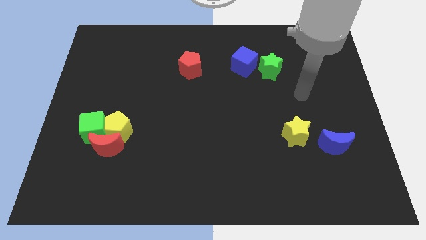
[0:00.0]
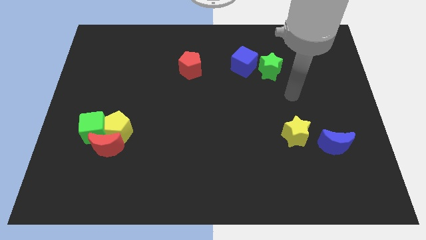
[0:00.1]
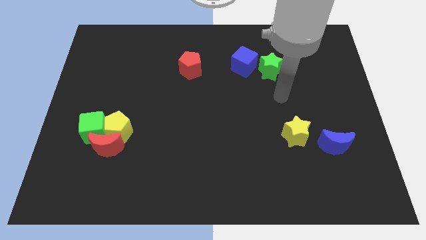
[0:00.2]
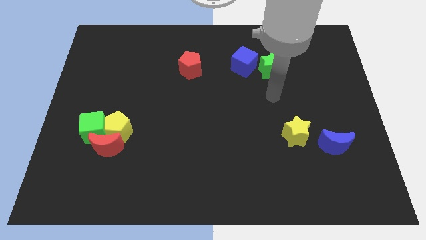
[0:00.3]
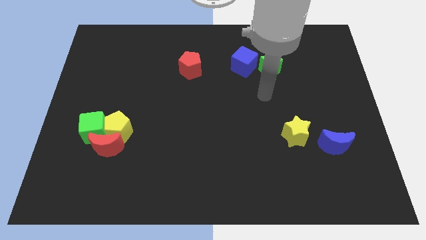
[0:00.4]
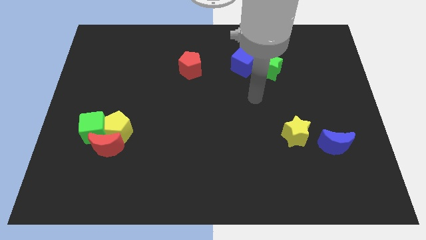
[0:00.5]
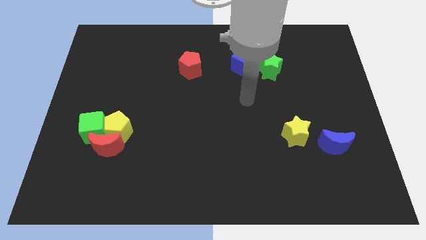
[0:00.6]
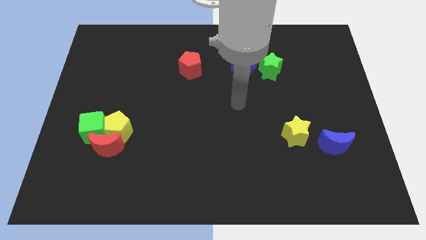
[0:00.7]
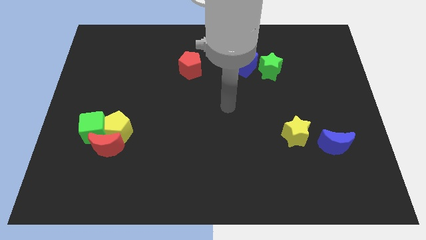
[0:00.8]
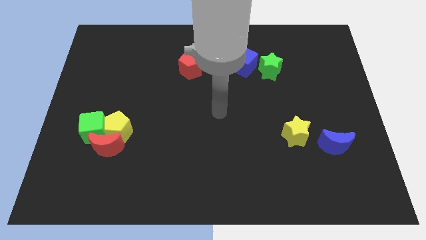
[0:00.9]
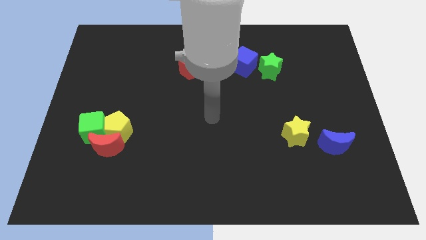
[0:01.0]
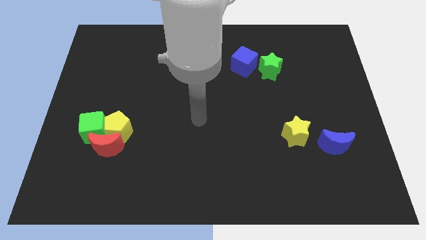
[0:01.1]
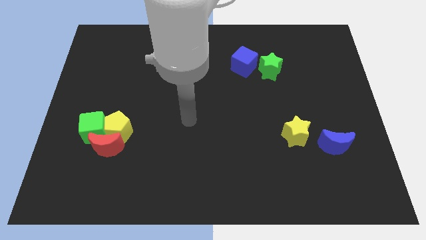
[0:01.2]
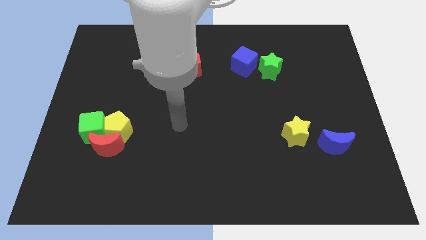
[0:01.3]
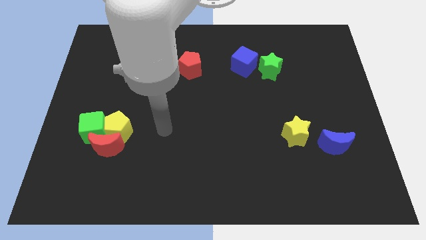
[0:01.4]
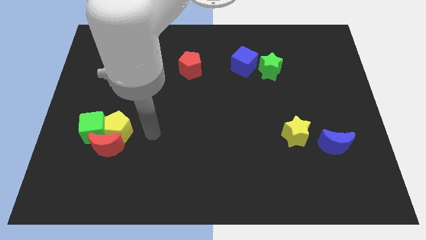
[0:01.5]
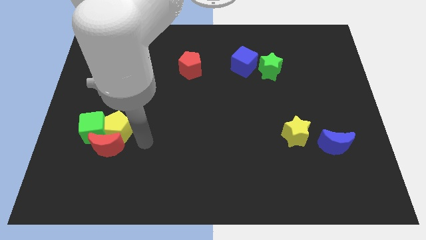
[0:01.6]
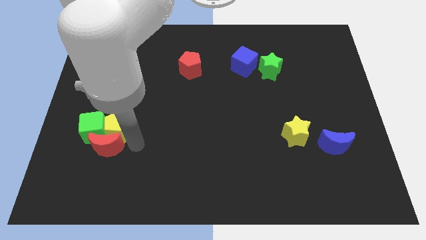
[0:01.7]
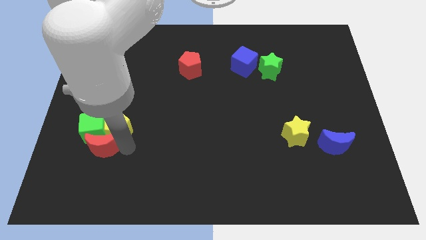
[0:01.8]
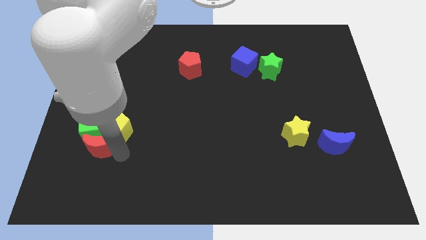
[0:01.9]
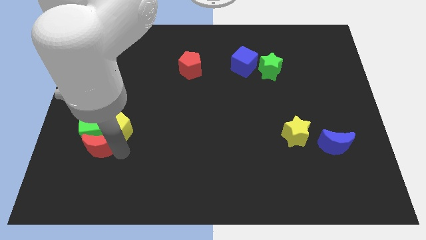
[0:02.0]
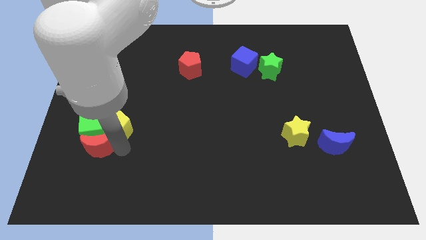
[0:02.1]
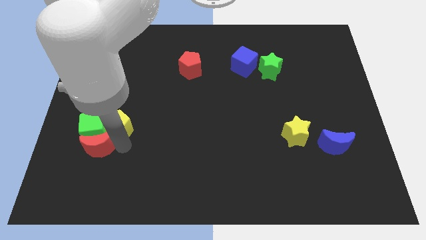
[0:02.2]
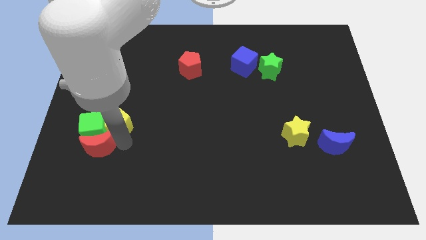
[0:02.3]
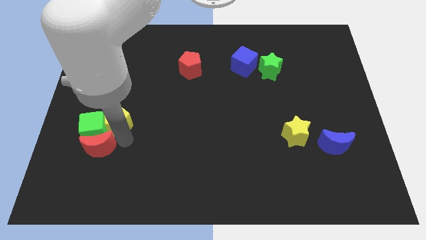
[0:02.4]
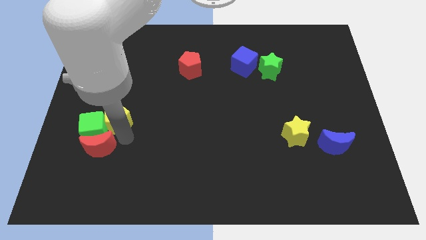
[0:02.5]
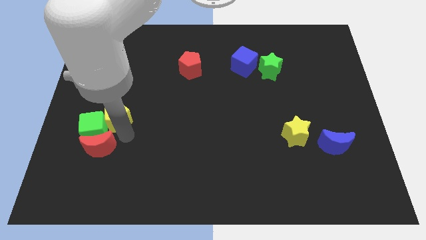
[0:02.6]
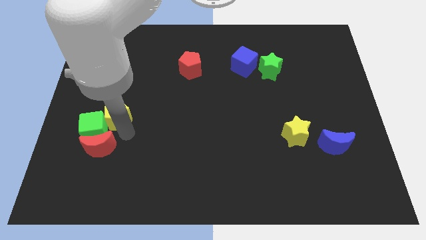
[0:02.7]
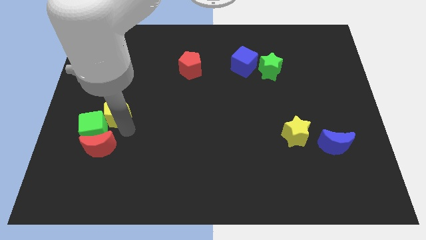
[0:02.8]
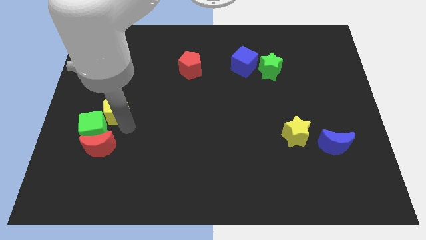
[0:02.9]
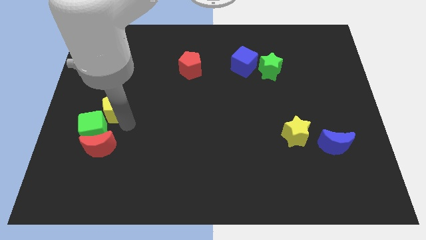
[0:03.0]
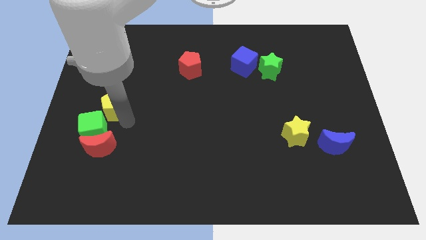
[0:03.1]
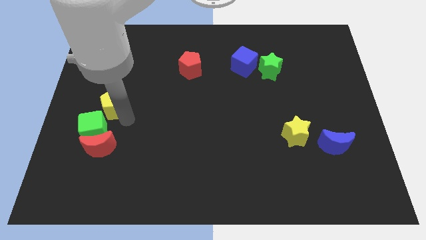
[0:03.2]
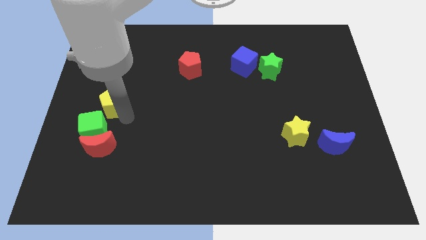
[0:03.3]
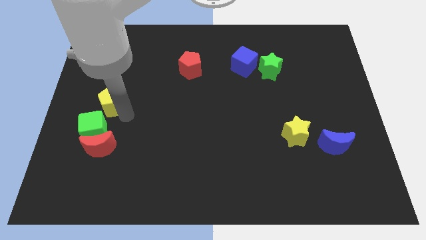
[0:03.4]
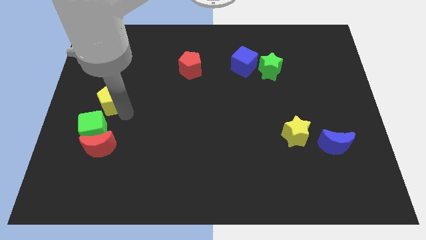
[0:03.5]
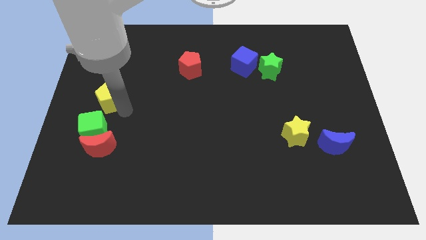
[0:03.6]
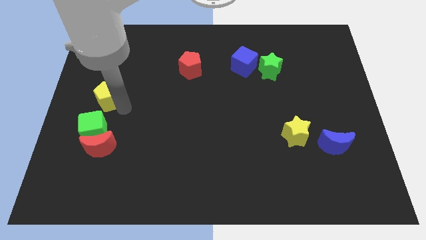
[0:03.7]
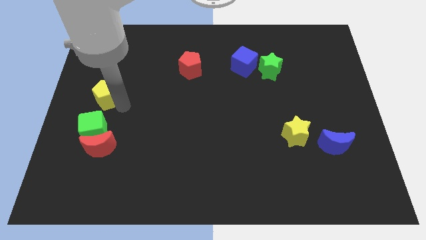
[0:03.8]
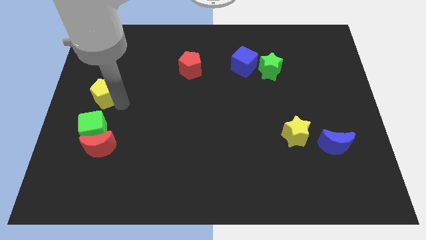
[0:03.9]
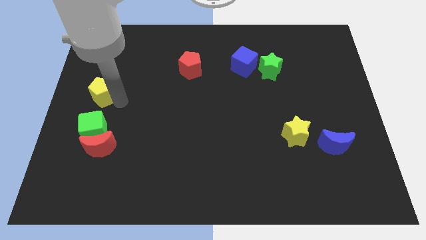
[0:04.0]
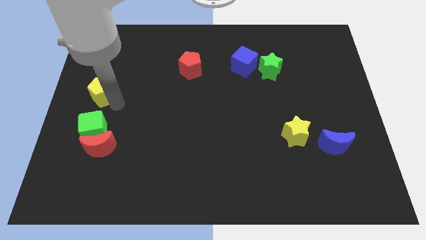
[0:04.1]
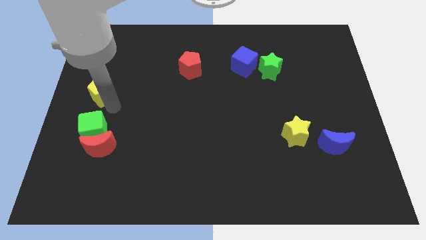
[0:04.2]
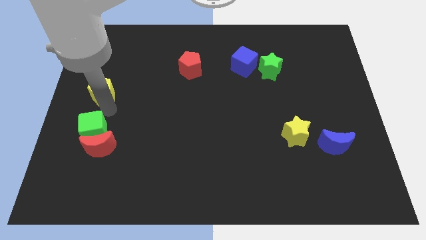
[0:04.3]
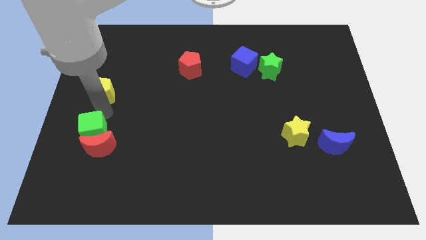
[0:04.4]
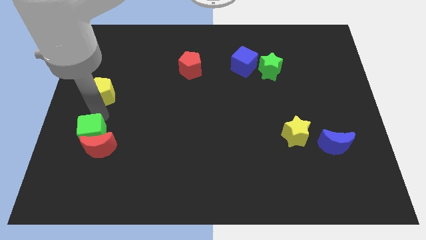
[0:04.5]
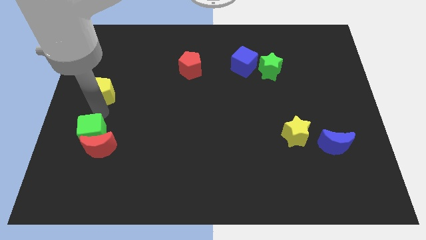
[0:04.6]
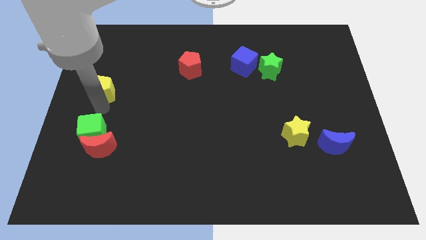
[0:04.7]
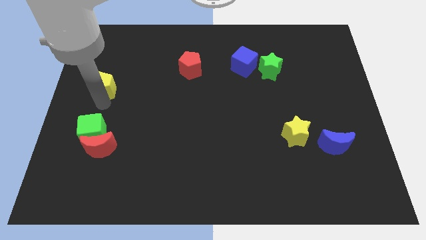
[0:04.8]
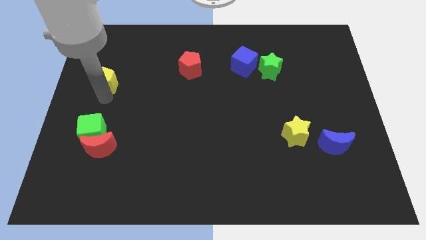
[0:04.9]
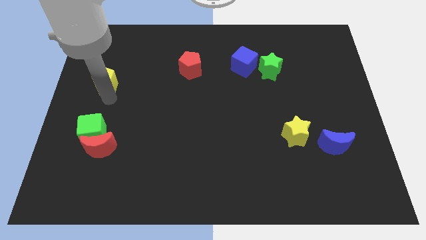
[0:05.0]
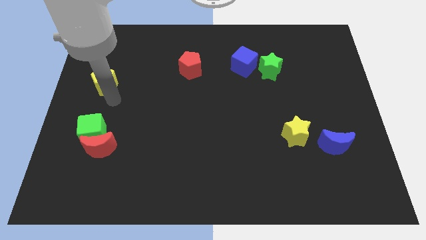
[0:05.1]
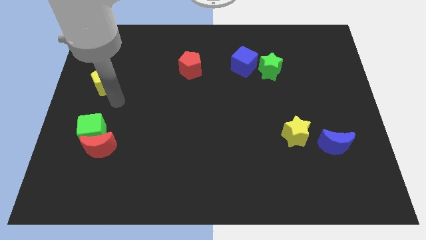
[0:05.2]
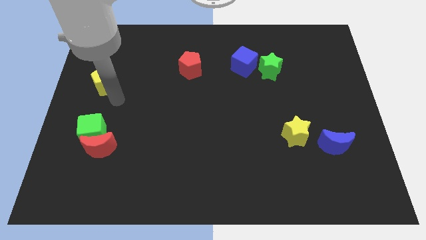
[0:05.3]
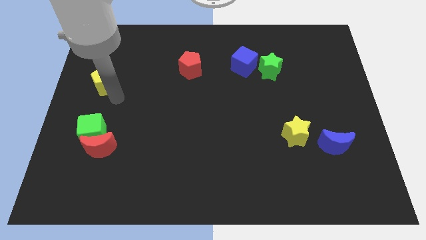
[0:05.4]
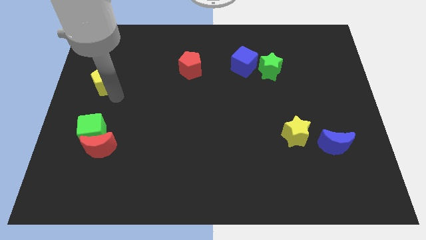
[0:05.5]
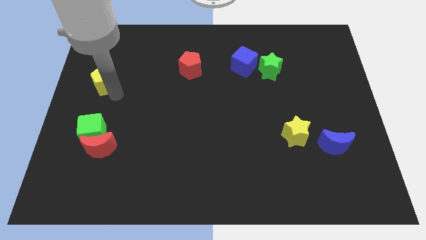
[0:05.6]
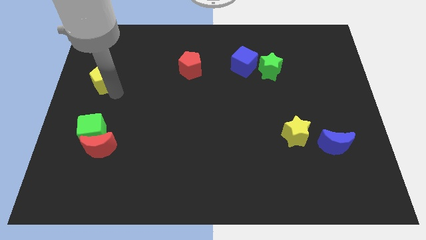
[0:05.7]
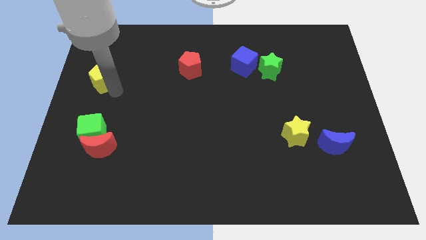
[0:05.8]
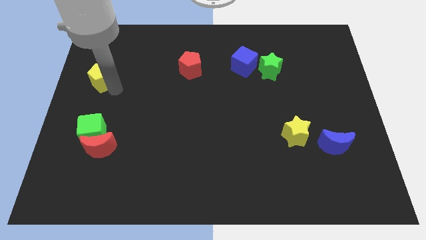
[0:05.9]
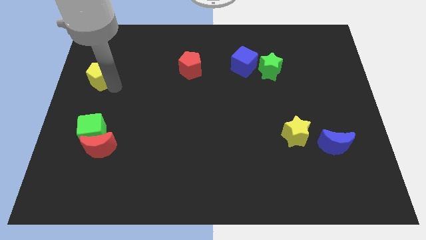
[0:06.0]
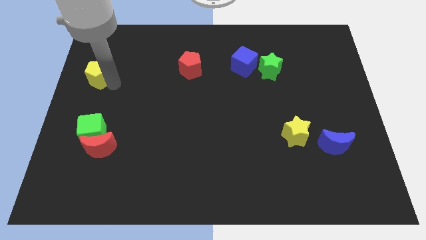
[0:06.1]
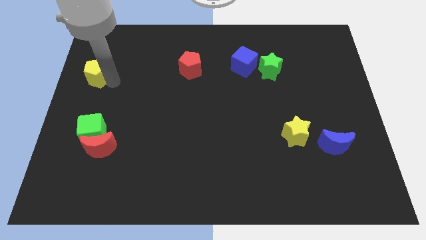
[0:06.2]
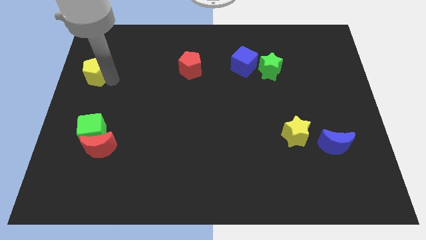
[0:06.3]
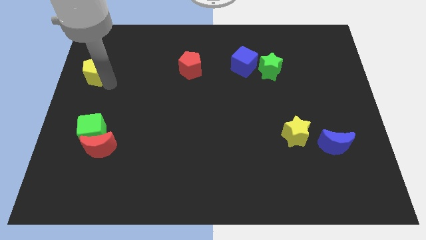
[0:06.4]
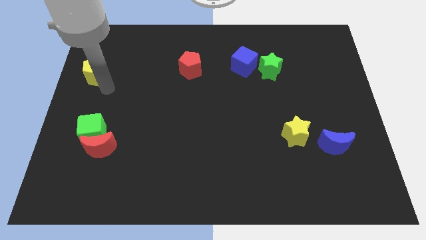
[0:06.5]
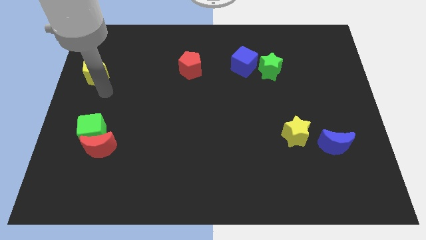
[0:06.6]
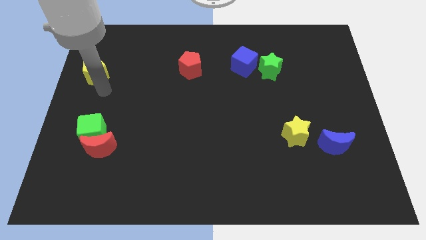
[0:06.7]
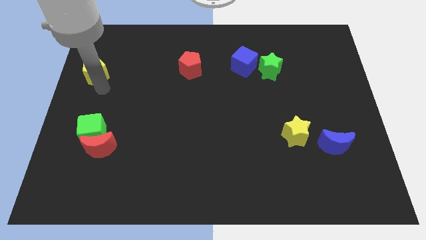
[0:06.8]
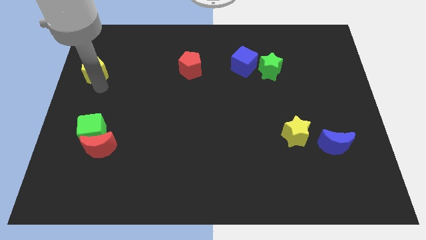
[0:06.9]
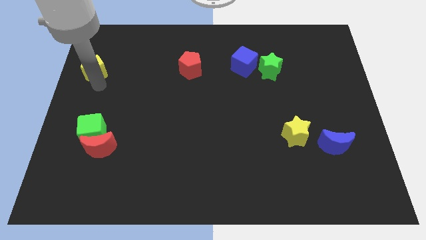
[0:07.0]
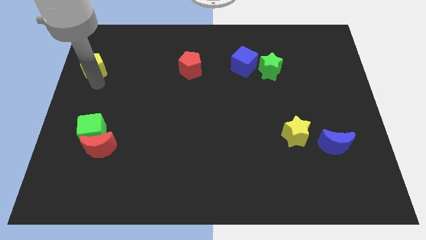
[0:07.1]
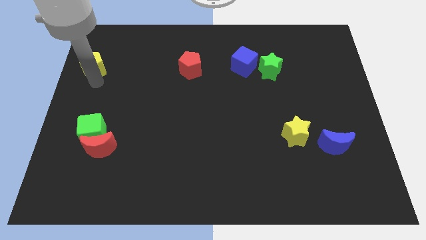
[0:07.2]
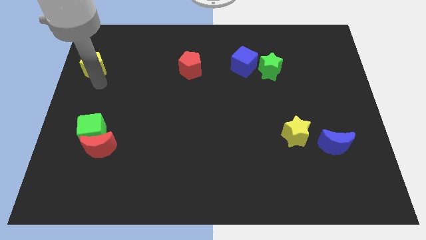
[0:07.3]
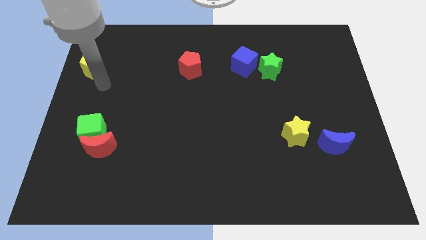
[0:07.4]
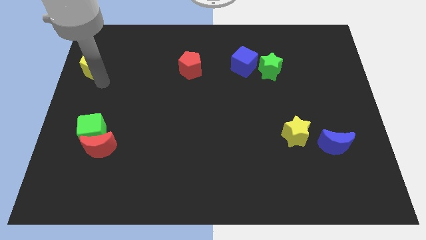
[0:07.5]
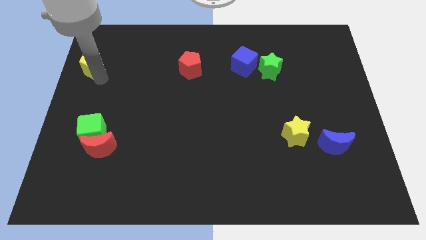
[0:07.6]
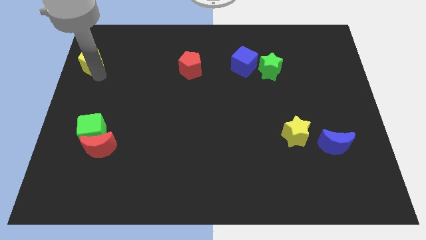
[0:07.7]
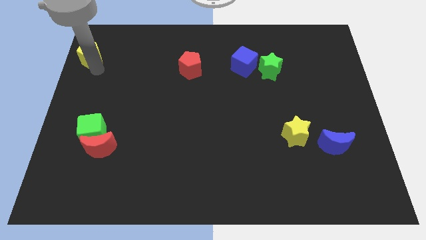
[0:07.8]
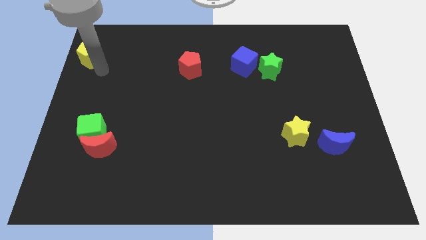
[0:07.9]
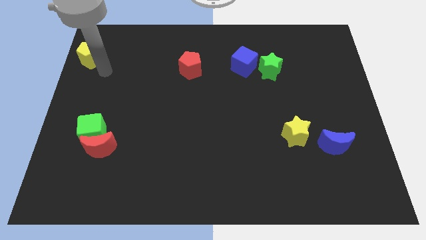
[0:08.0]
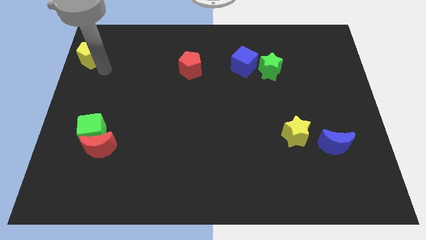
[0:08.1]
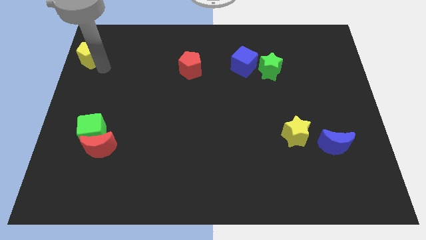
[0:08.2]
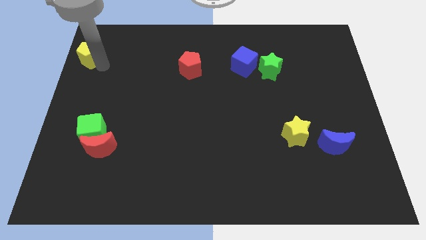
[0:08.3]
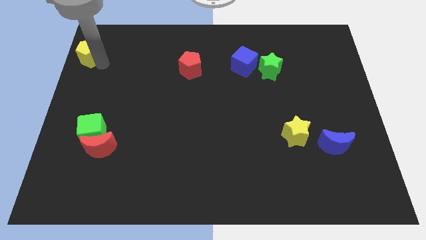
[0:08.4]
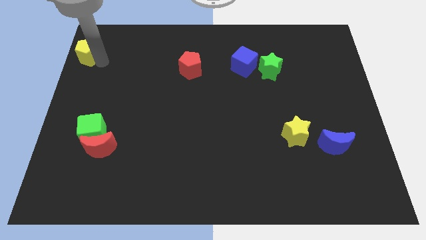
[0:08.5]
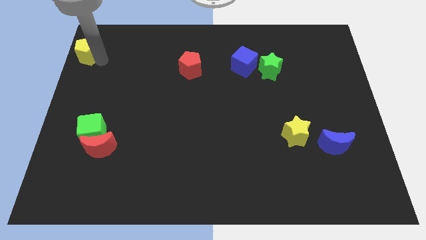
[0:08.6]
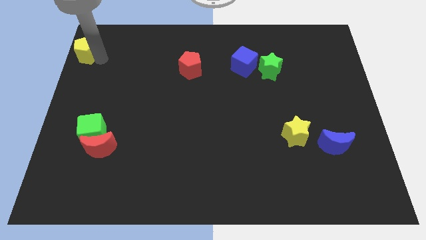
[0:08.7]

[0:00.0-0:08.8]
slide the yellow pentagon to the top left corner
